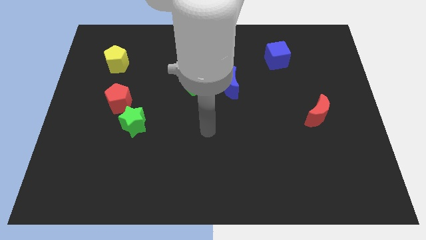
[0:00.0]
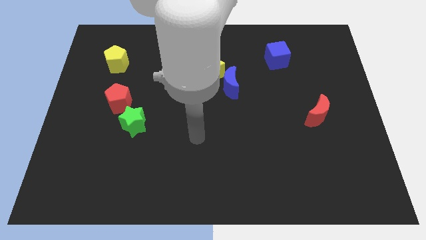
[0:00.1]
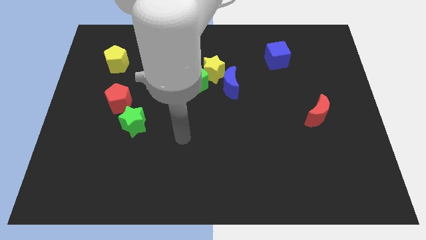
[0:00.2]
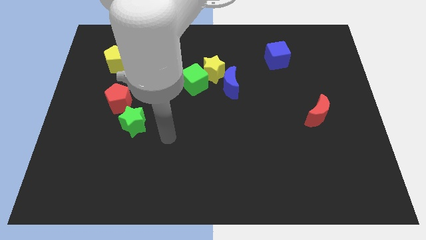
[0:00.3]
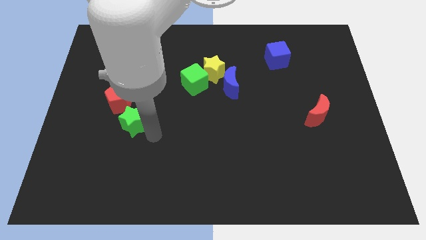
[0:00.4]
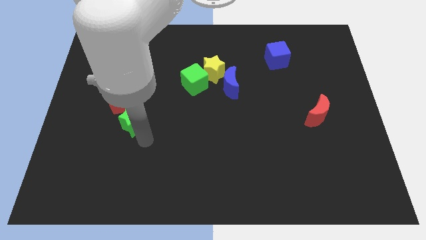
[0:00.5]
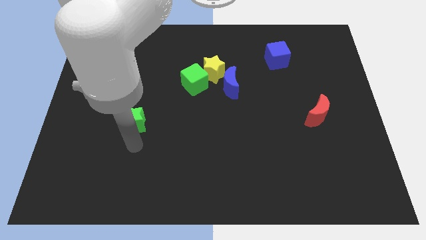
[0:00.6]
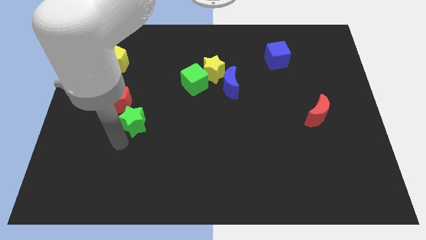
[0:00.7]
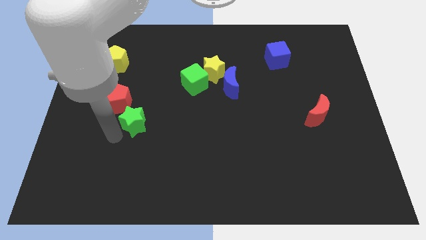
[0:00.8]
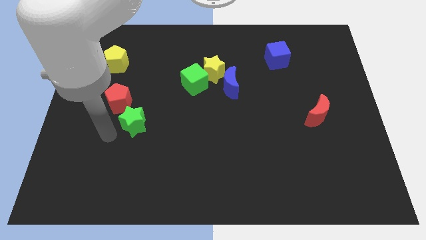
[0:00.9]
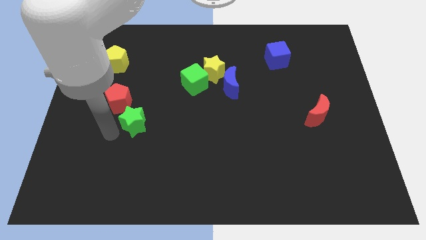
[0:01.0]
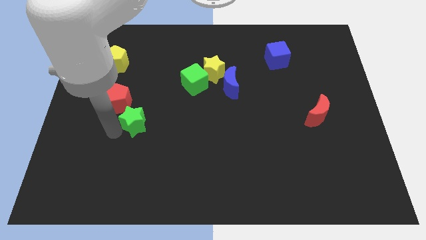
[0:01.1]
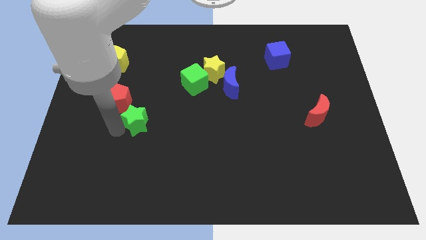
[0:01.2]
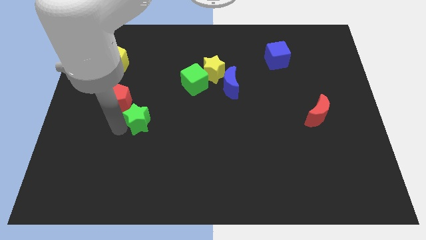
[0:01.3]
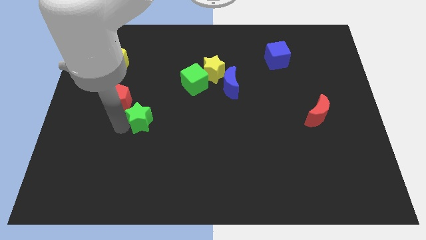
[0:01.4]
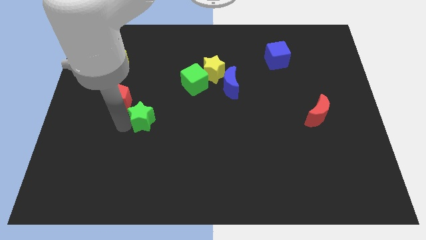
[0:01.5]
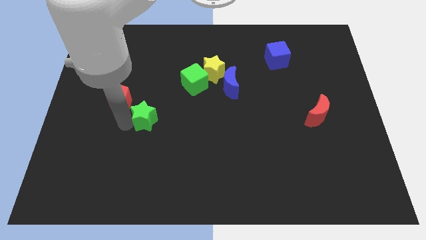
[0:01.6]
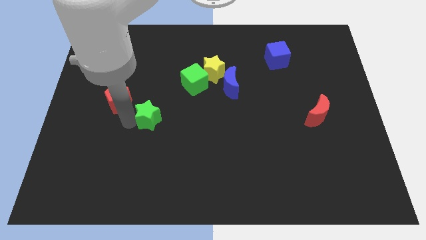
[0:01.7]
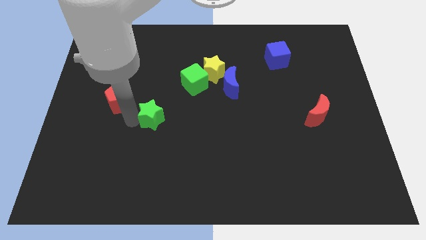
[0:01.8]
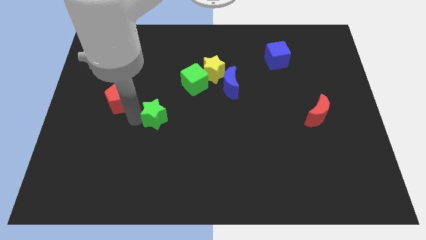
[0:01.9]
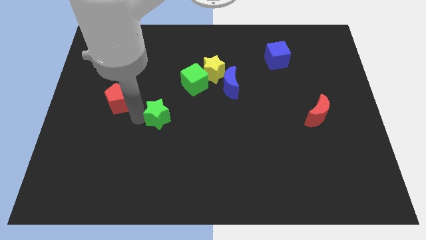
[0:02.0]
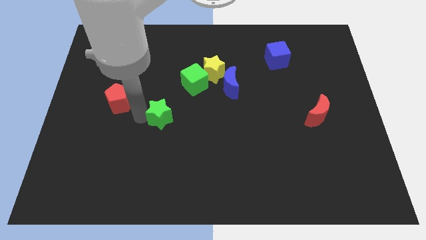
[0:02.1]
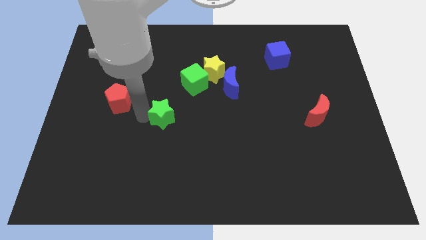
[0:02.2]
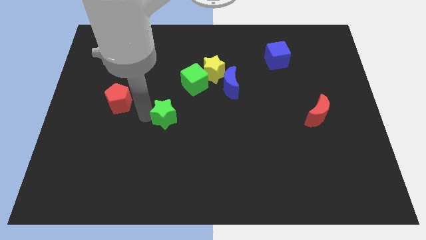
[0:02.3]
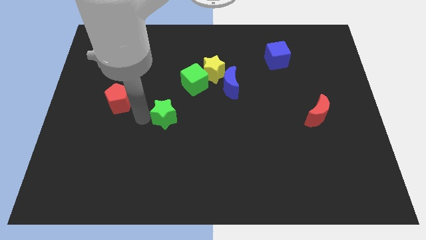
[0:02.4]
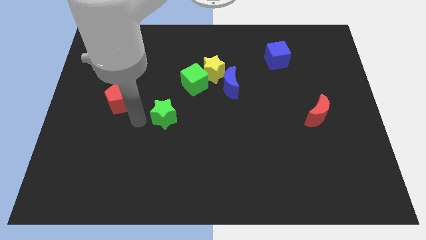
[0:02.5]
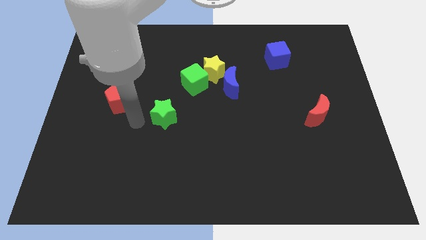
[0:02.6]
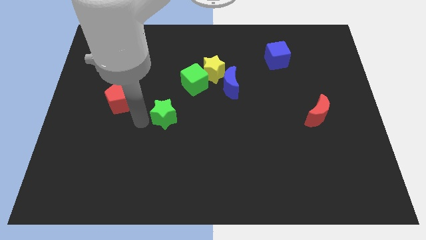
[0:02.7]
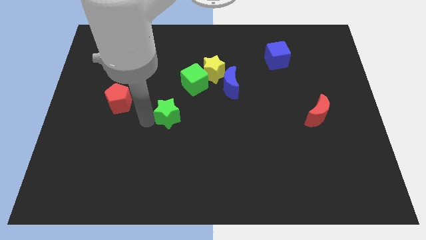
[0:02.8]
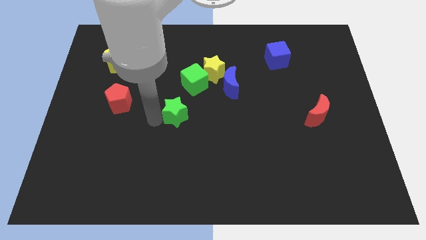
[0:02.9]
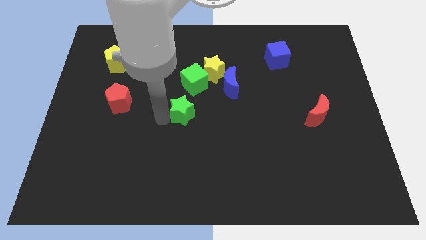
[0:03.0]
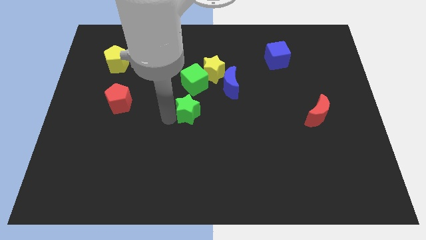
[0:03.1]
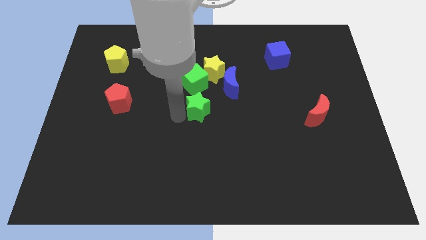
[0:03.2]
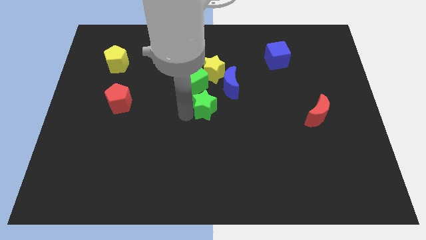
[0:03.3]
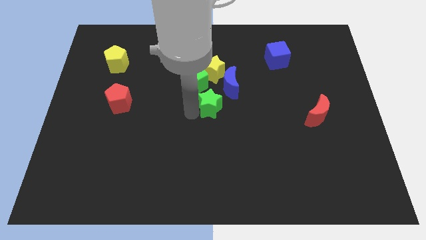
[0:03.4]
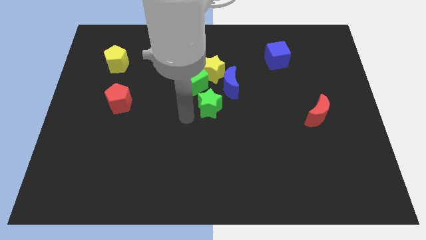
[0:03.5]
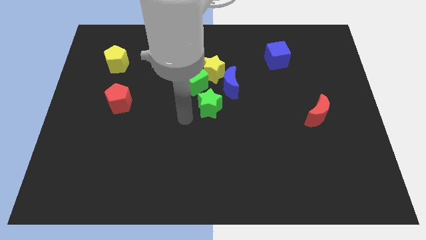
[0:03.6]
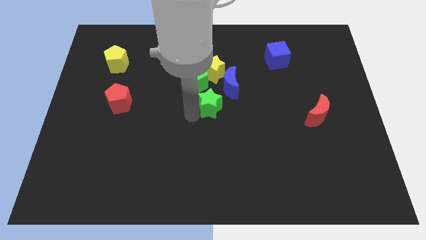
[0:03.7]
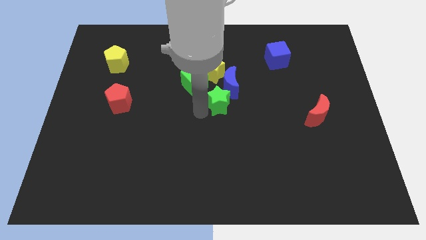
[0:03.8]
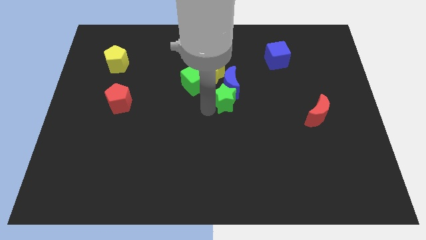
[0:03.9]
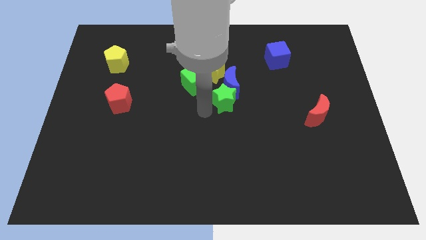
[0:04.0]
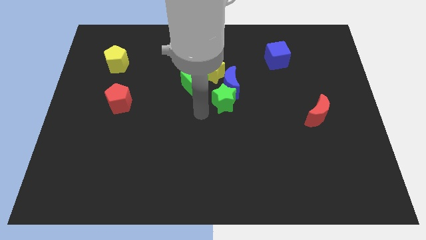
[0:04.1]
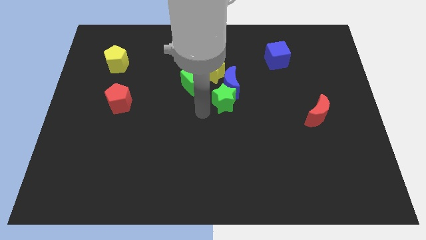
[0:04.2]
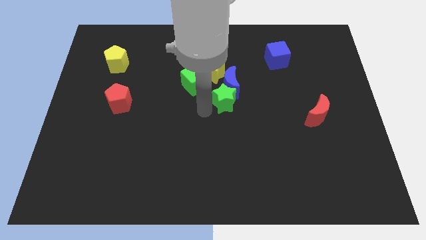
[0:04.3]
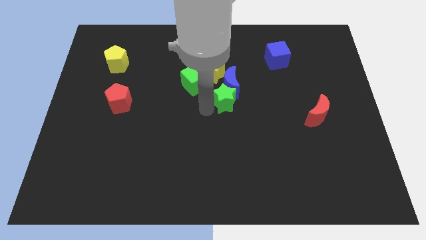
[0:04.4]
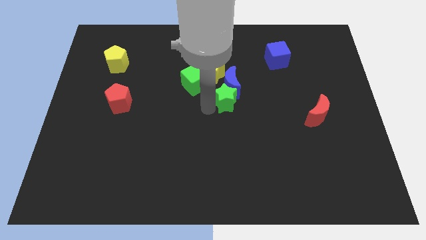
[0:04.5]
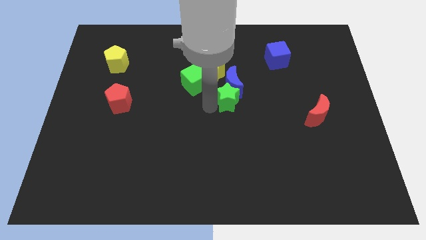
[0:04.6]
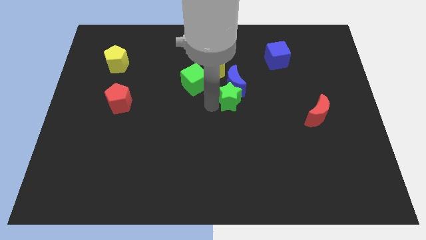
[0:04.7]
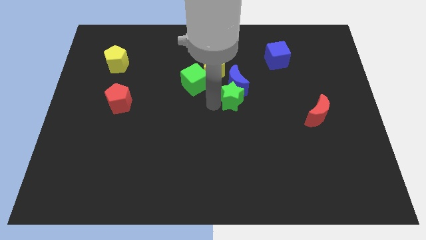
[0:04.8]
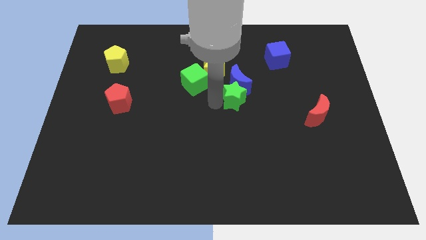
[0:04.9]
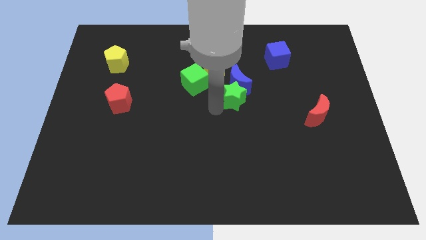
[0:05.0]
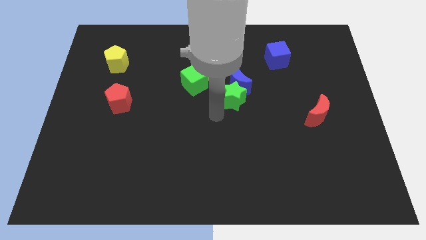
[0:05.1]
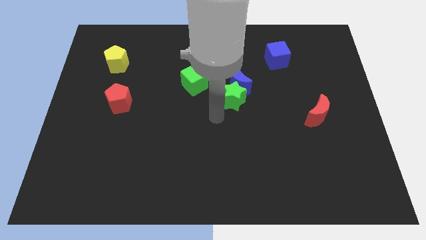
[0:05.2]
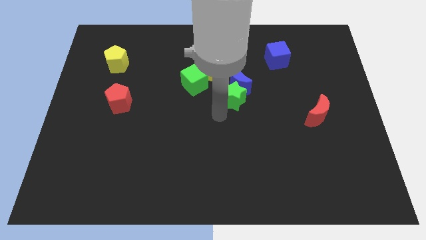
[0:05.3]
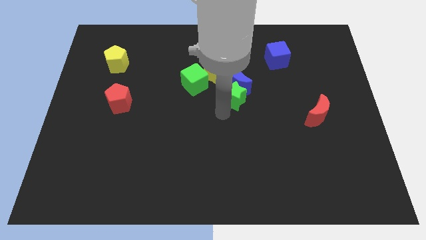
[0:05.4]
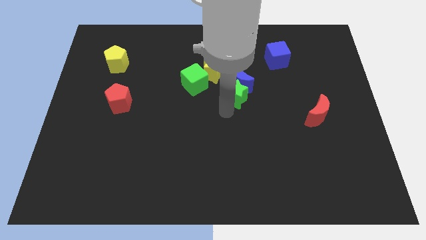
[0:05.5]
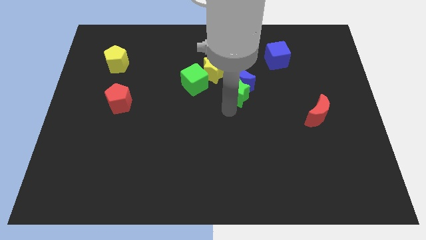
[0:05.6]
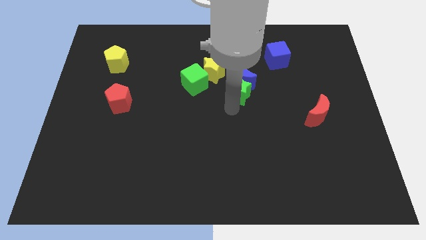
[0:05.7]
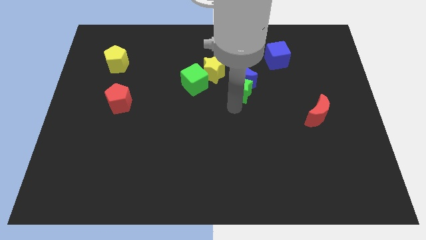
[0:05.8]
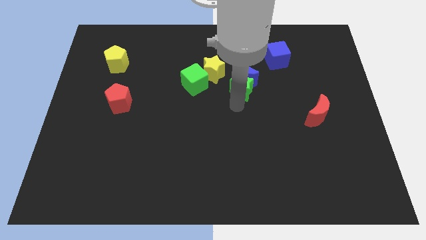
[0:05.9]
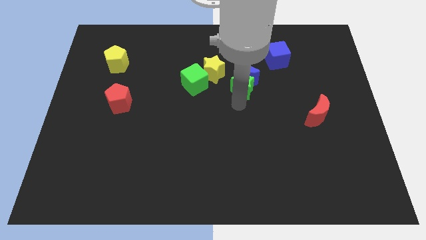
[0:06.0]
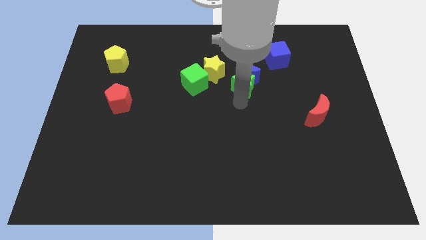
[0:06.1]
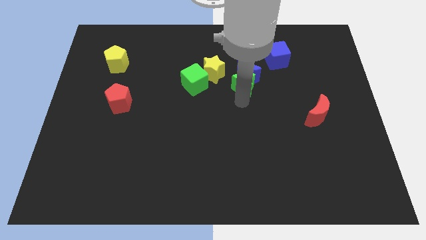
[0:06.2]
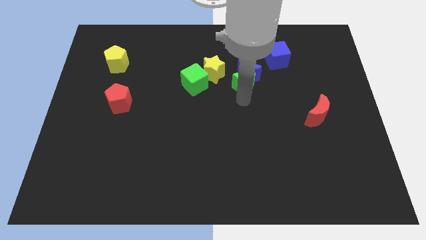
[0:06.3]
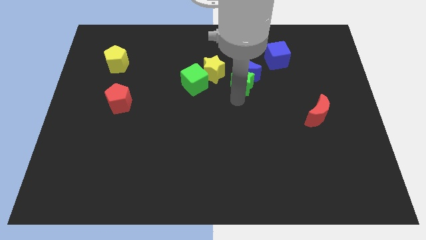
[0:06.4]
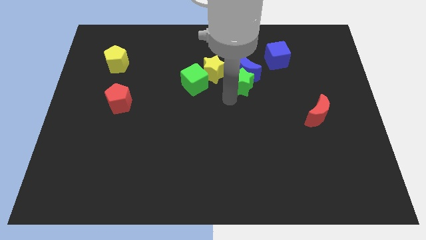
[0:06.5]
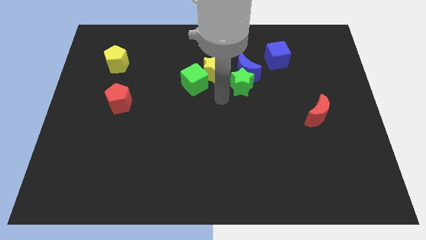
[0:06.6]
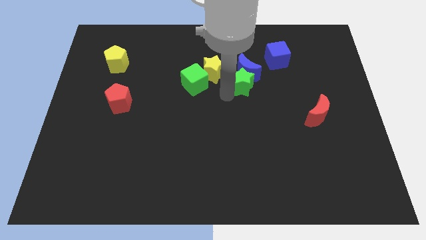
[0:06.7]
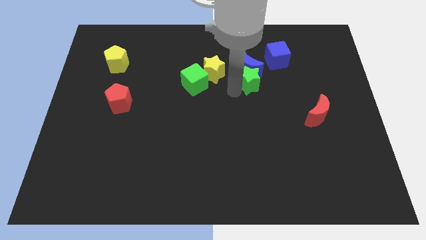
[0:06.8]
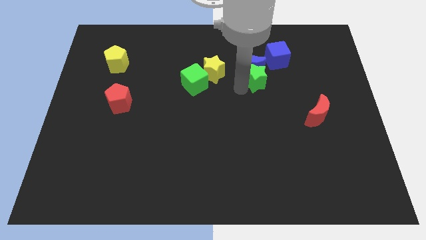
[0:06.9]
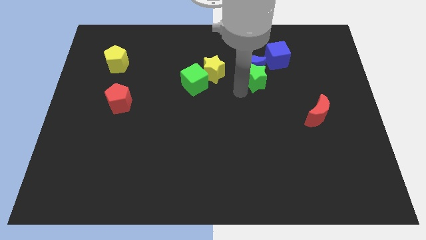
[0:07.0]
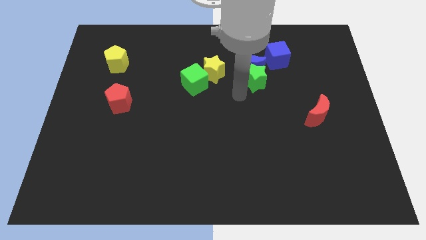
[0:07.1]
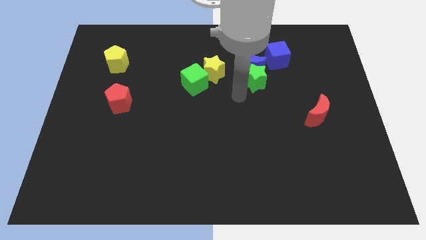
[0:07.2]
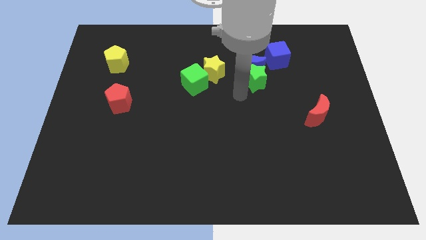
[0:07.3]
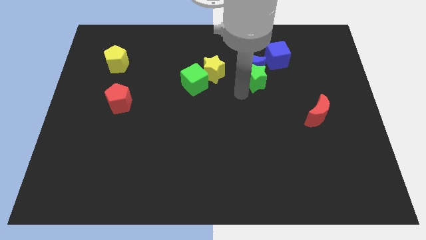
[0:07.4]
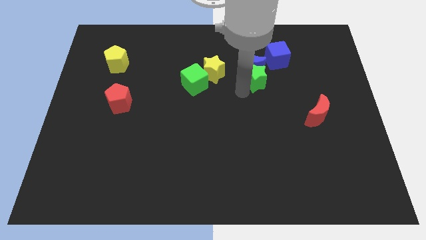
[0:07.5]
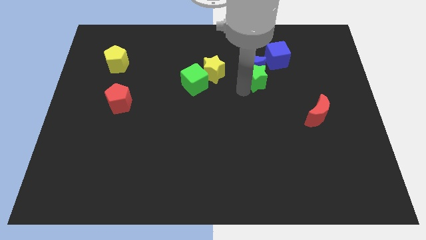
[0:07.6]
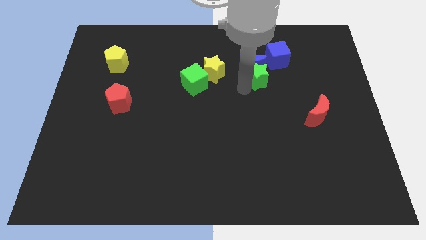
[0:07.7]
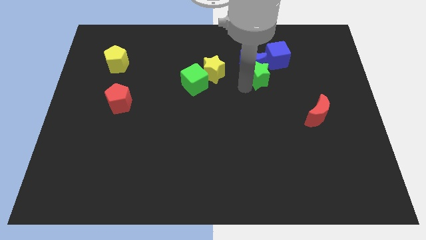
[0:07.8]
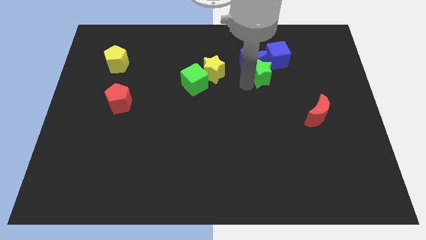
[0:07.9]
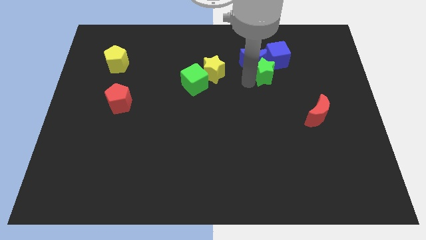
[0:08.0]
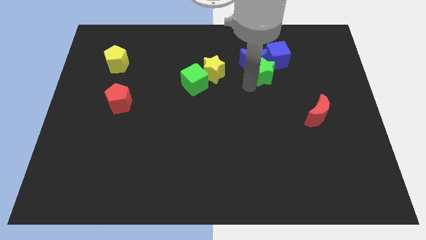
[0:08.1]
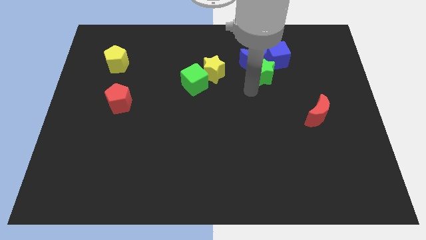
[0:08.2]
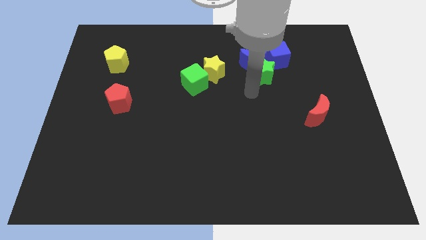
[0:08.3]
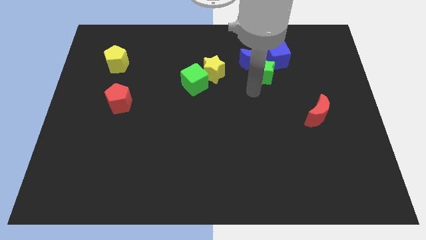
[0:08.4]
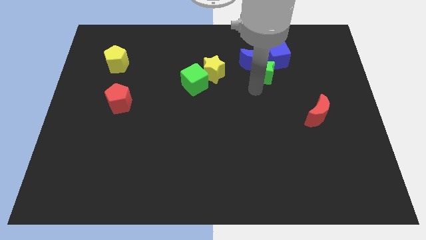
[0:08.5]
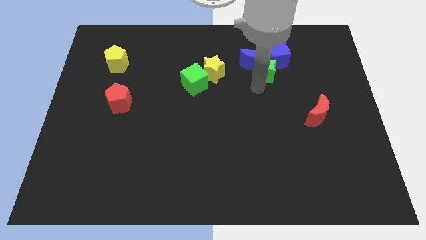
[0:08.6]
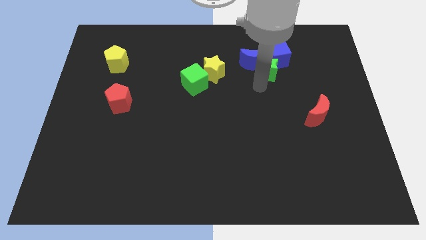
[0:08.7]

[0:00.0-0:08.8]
slide the green star to the blue cube
